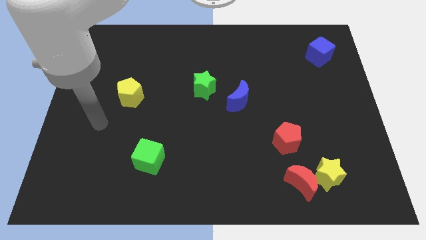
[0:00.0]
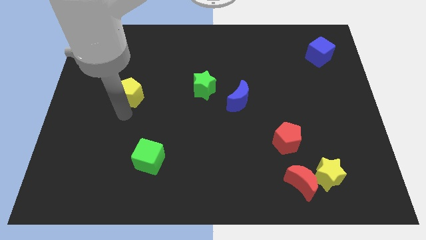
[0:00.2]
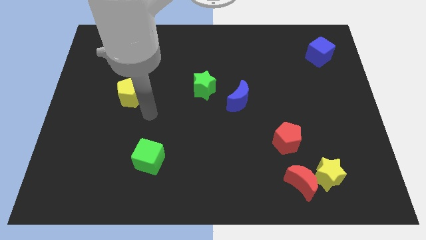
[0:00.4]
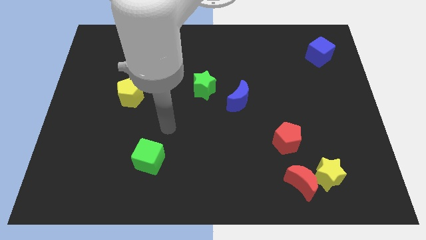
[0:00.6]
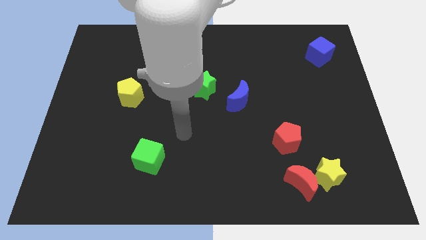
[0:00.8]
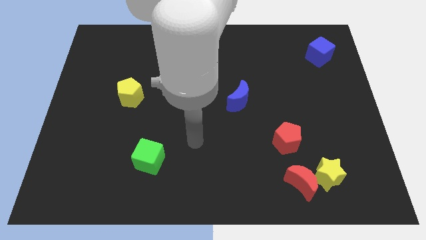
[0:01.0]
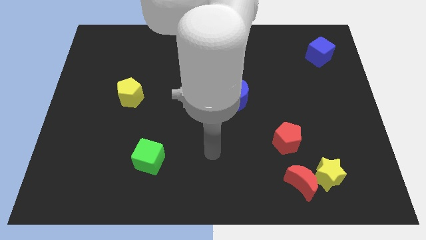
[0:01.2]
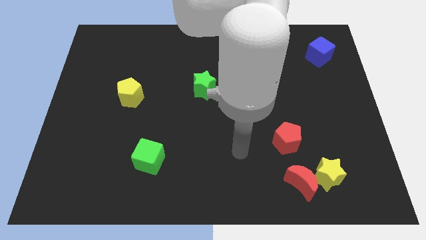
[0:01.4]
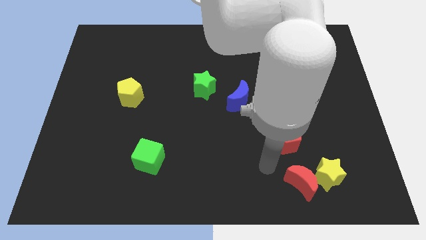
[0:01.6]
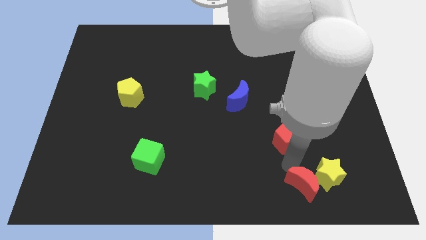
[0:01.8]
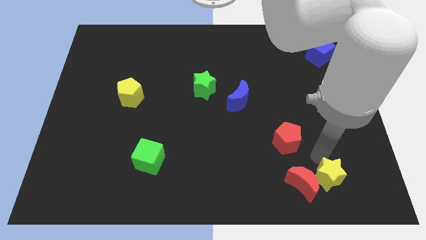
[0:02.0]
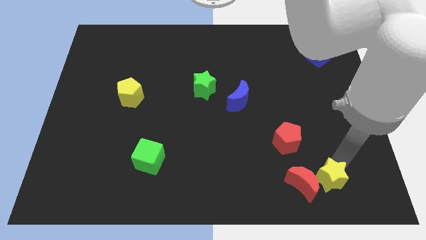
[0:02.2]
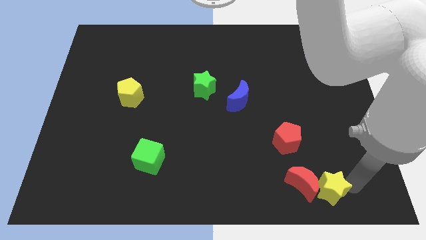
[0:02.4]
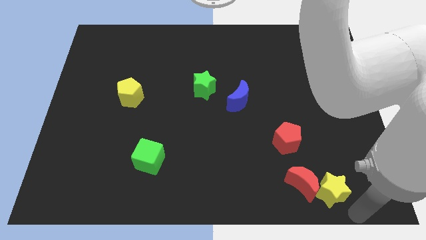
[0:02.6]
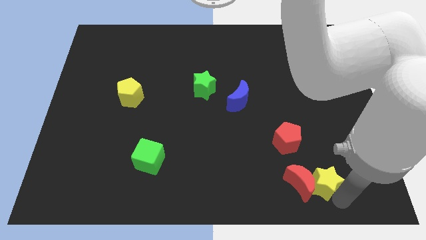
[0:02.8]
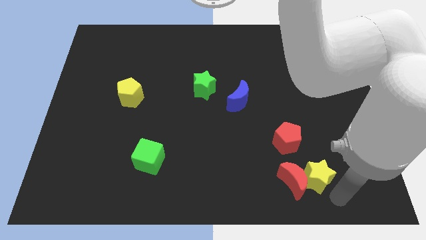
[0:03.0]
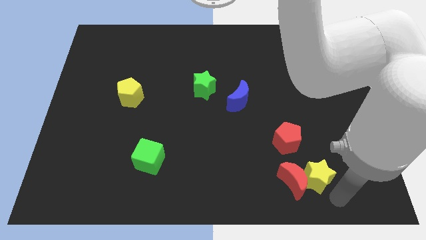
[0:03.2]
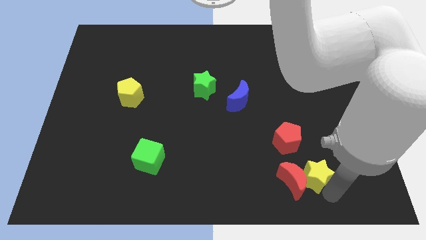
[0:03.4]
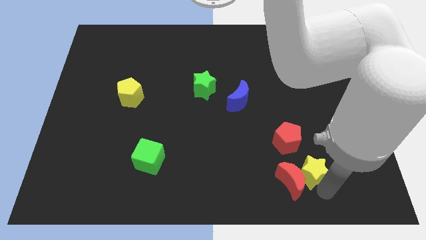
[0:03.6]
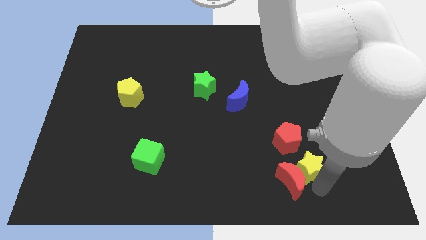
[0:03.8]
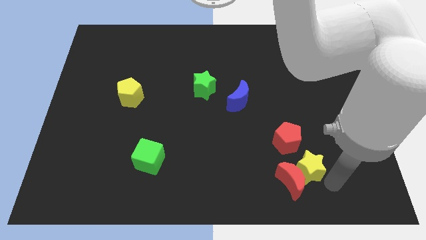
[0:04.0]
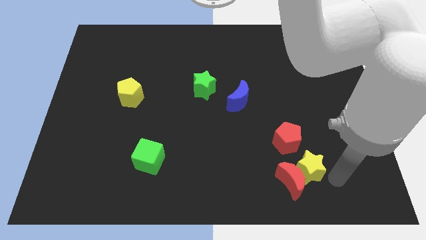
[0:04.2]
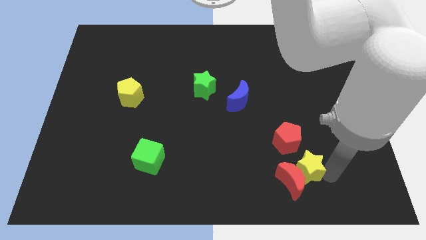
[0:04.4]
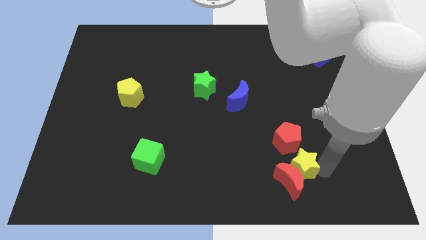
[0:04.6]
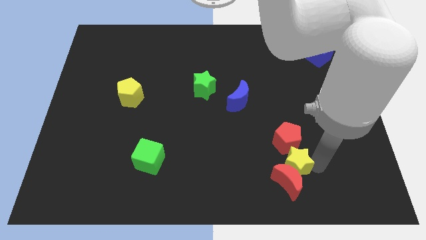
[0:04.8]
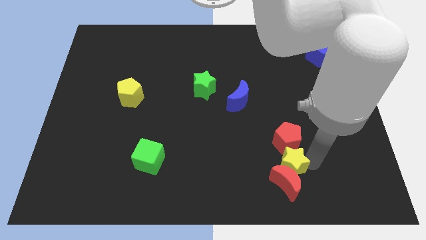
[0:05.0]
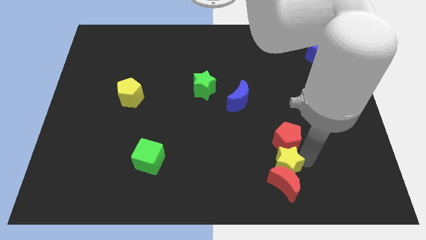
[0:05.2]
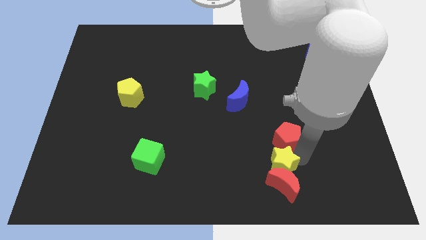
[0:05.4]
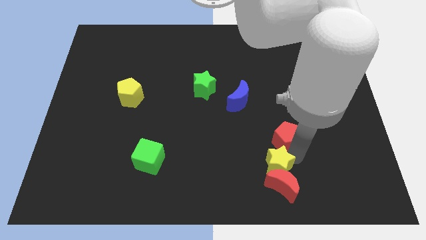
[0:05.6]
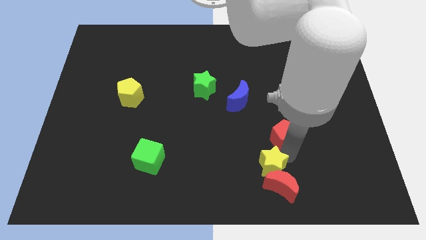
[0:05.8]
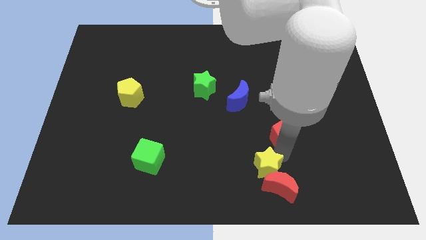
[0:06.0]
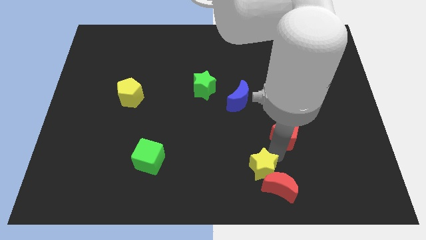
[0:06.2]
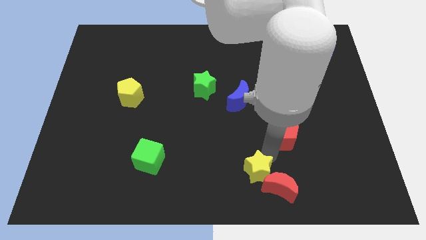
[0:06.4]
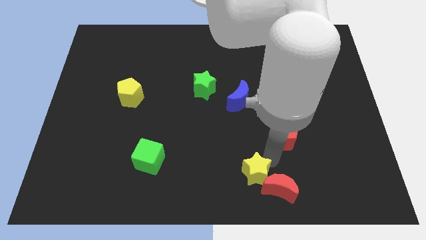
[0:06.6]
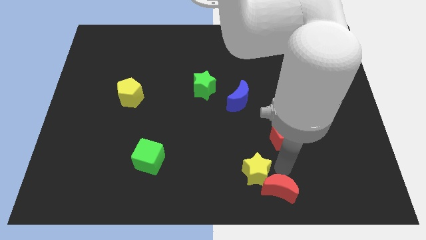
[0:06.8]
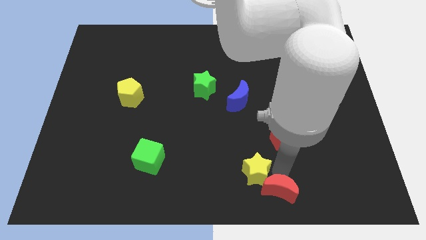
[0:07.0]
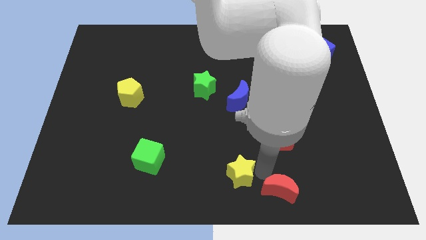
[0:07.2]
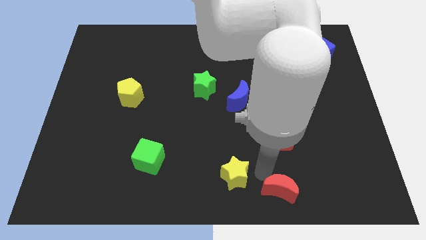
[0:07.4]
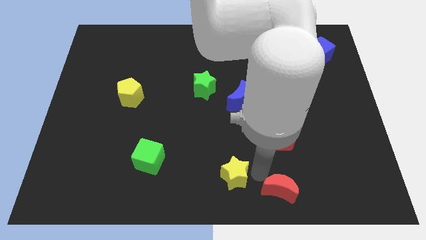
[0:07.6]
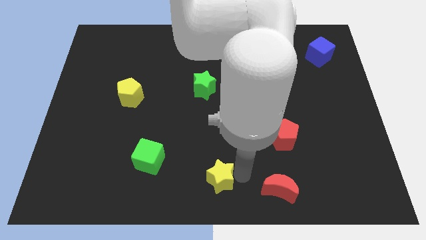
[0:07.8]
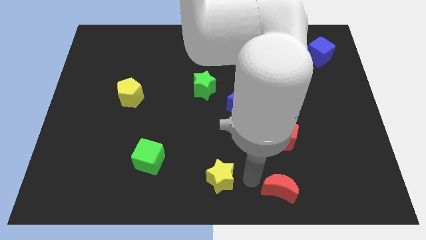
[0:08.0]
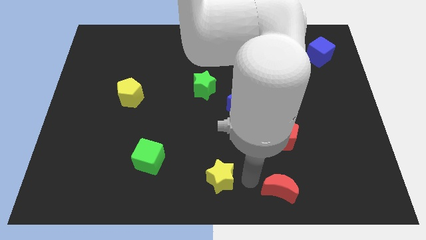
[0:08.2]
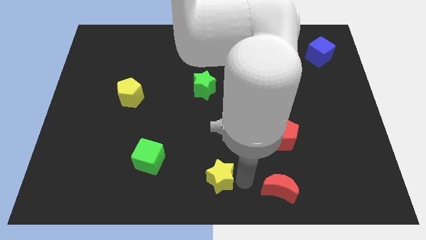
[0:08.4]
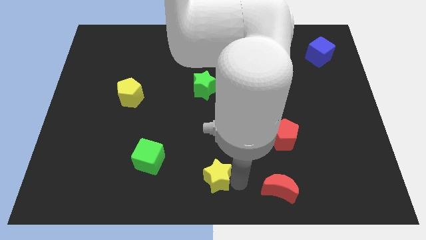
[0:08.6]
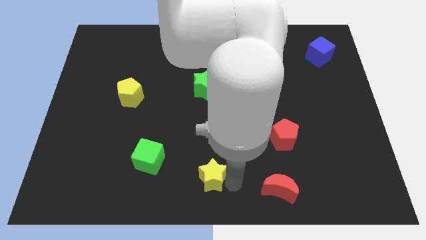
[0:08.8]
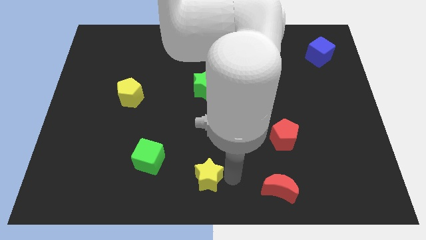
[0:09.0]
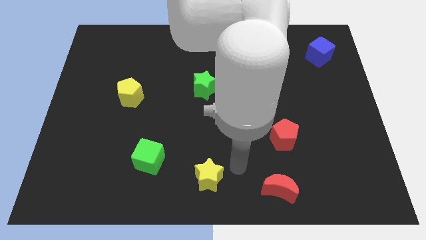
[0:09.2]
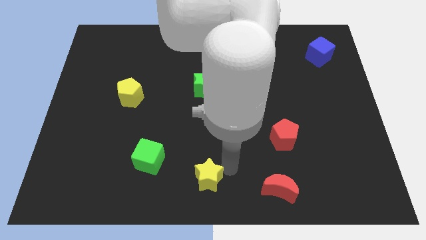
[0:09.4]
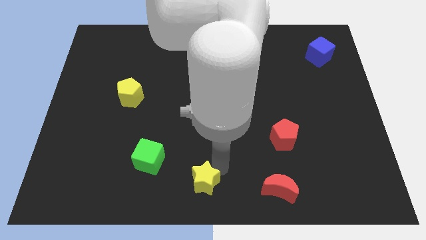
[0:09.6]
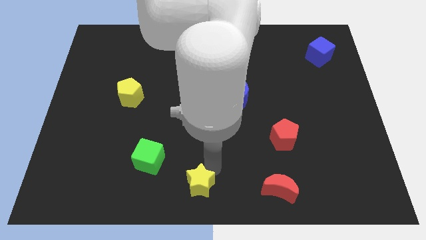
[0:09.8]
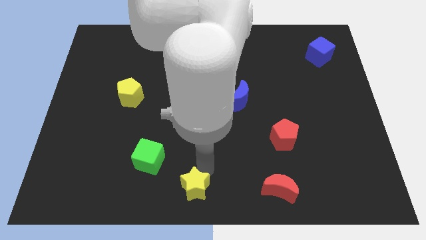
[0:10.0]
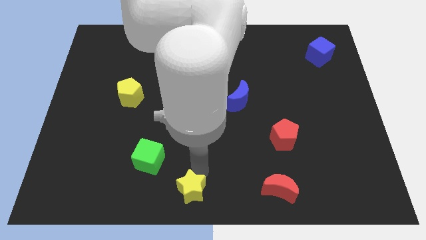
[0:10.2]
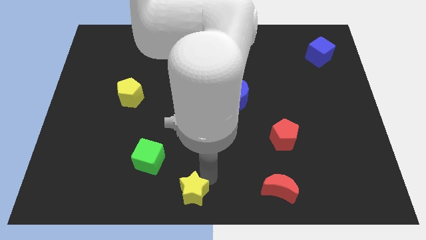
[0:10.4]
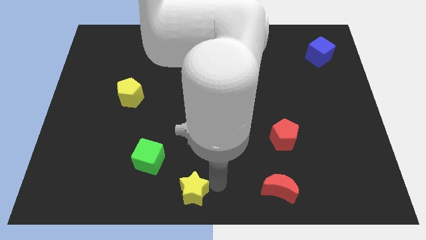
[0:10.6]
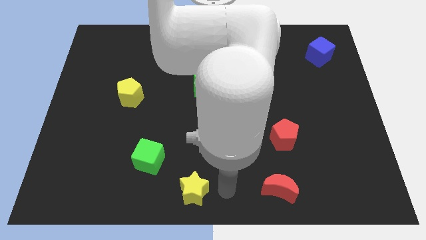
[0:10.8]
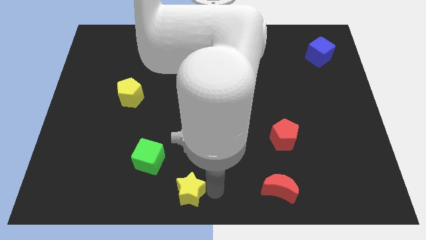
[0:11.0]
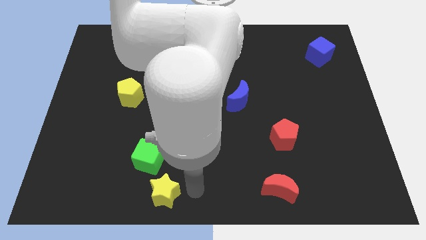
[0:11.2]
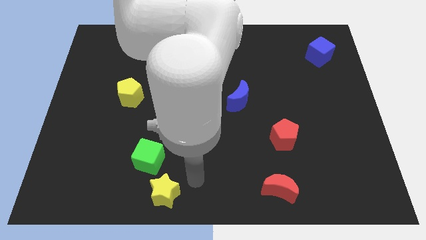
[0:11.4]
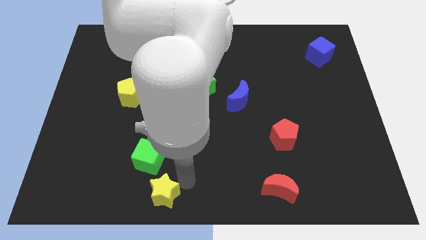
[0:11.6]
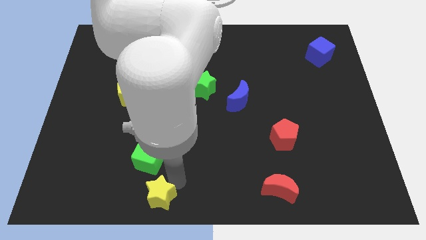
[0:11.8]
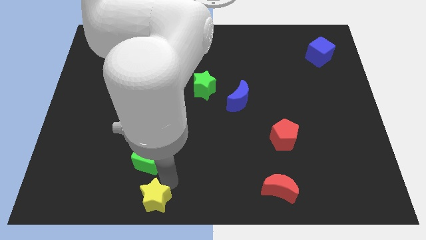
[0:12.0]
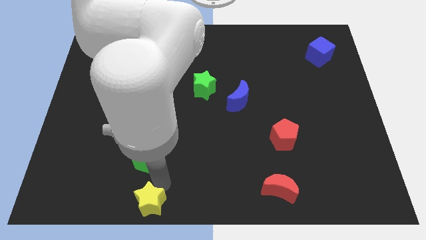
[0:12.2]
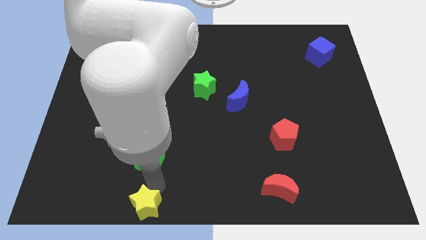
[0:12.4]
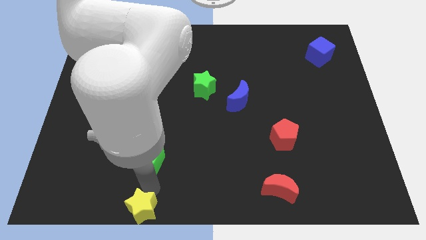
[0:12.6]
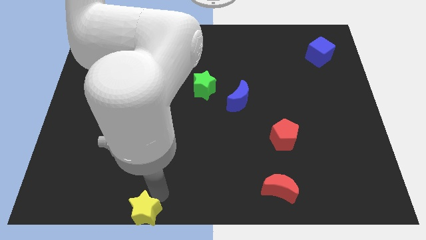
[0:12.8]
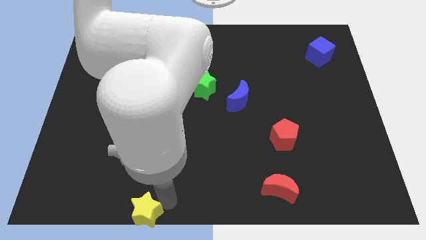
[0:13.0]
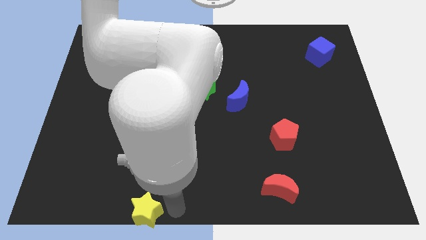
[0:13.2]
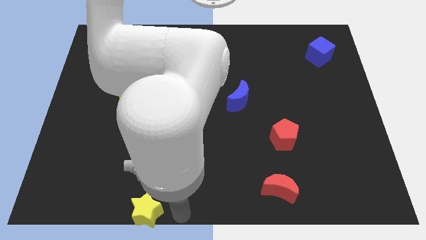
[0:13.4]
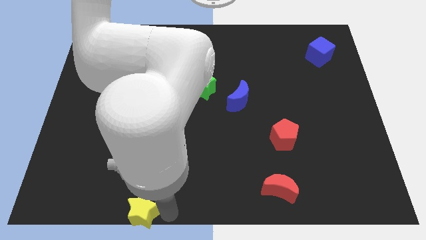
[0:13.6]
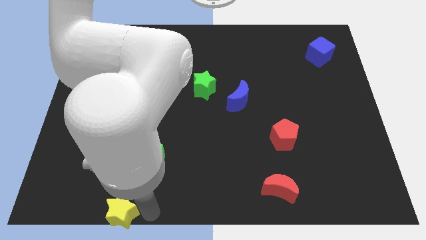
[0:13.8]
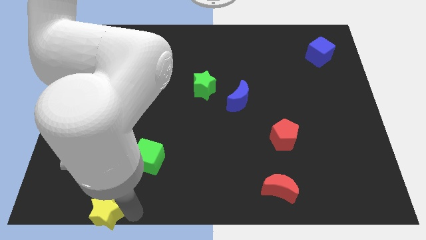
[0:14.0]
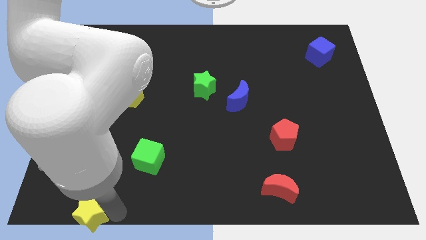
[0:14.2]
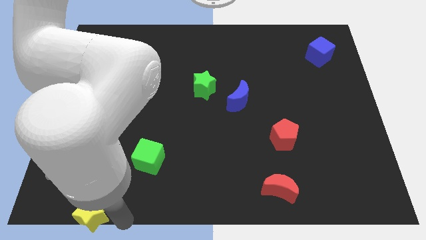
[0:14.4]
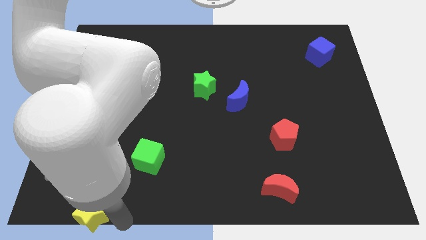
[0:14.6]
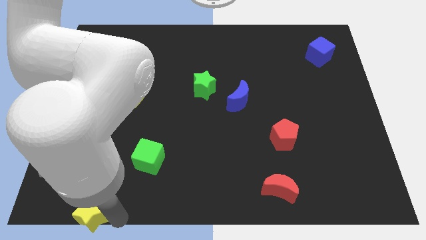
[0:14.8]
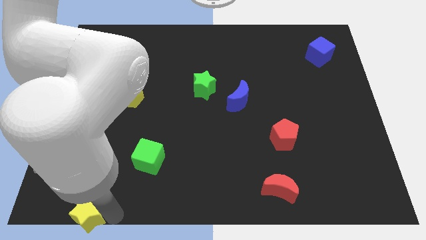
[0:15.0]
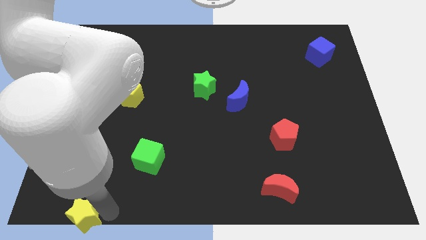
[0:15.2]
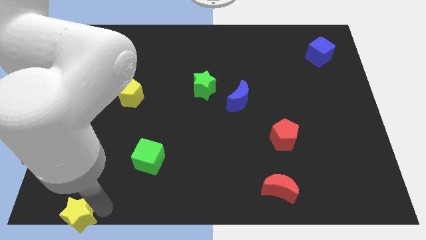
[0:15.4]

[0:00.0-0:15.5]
push the yellow star to the bottom left
